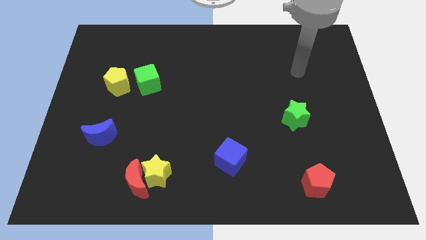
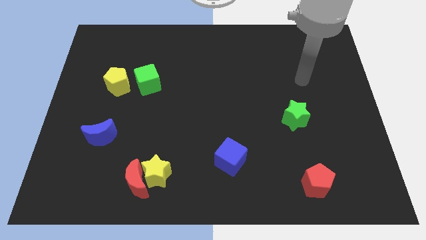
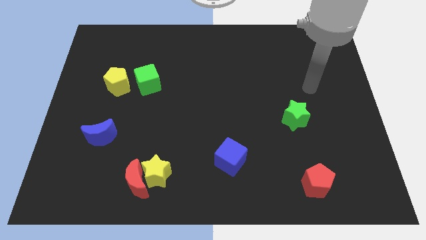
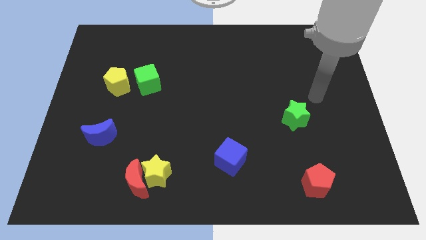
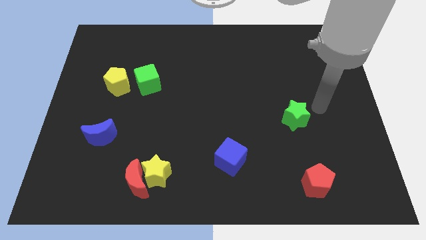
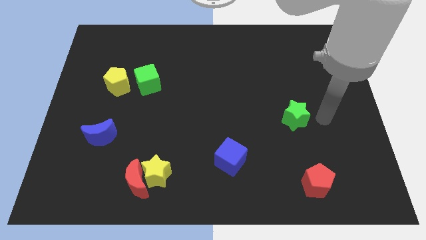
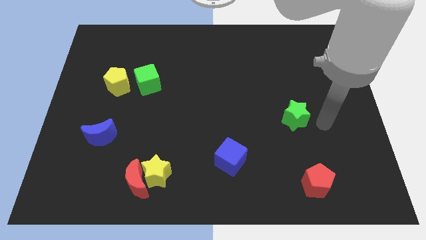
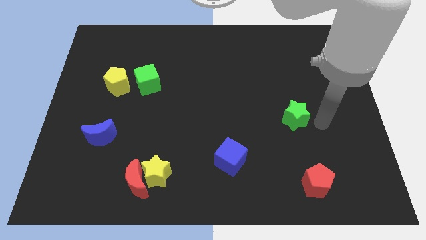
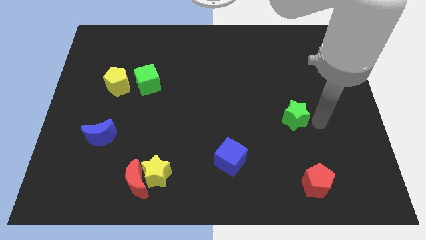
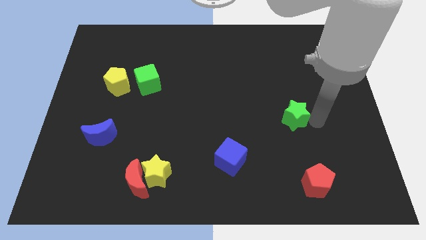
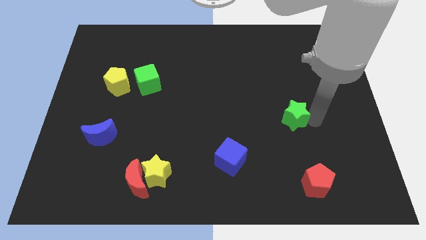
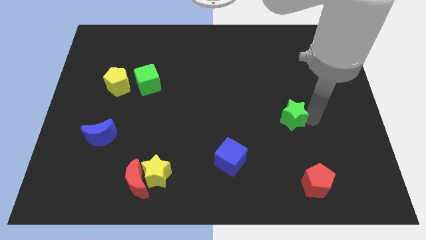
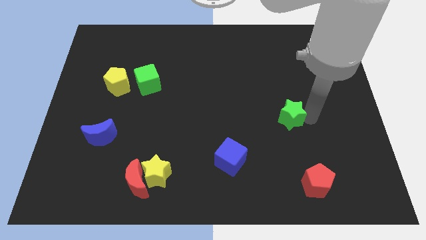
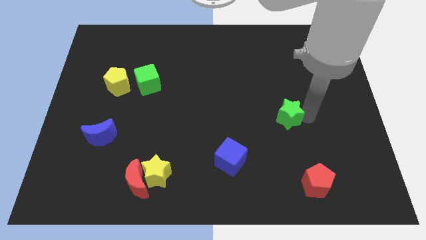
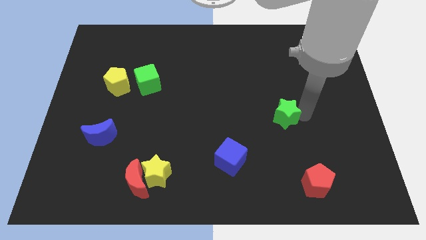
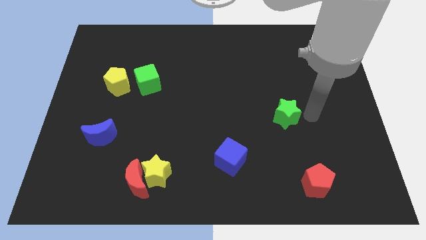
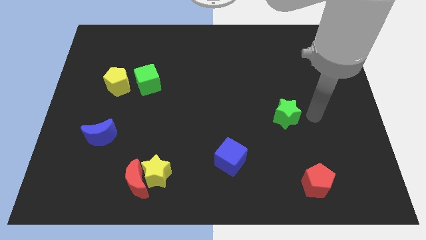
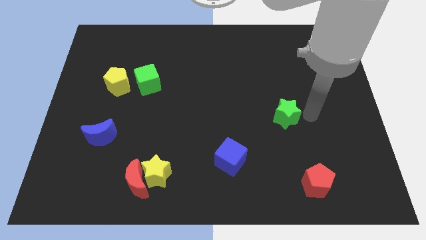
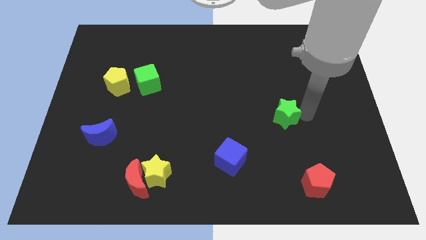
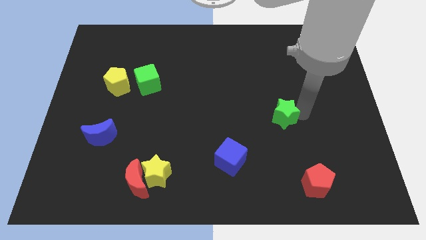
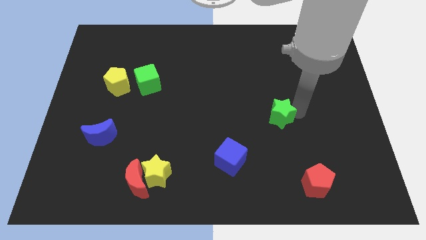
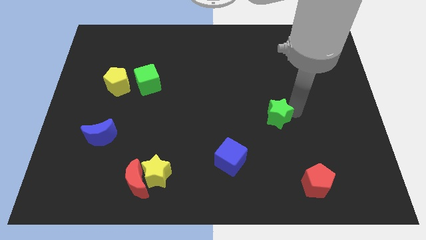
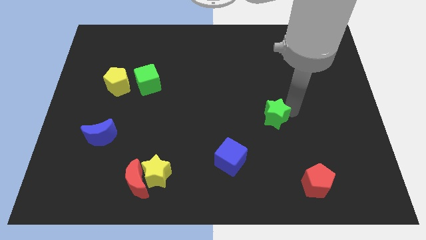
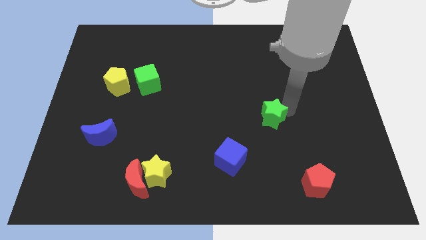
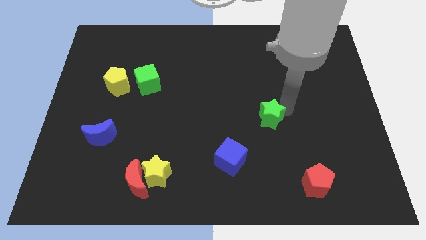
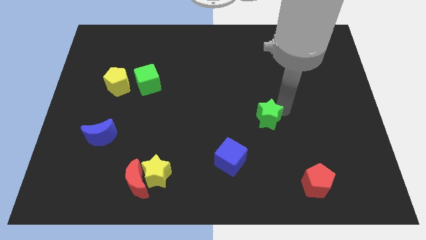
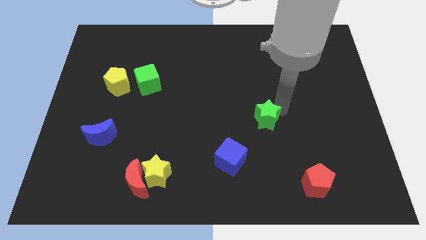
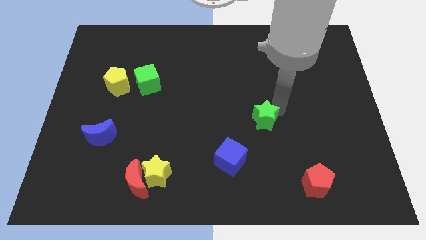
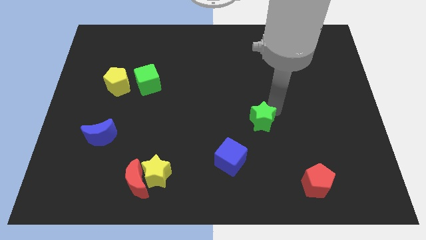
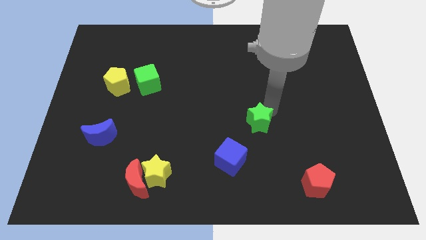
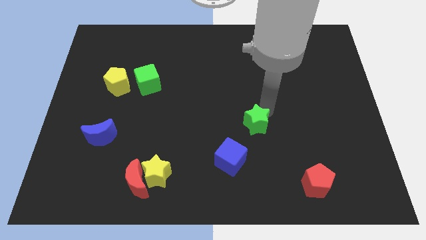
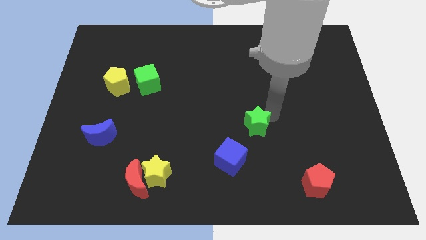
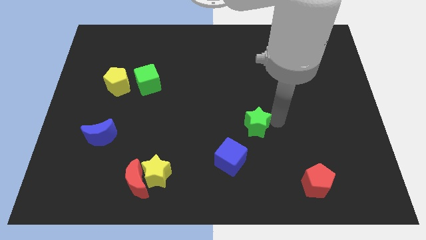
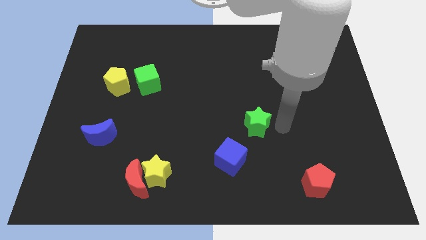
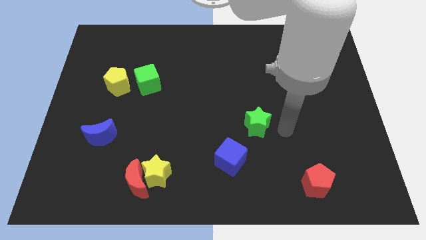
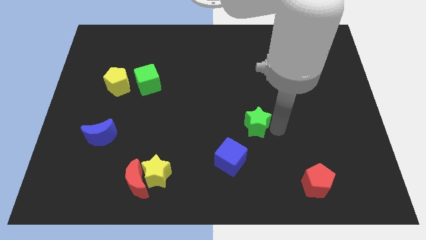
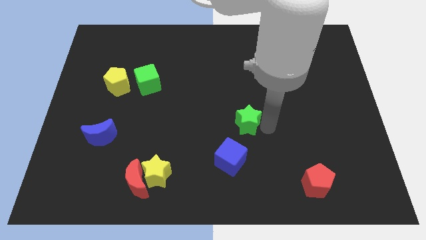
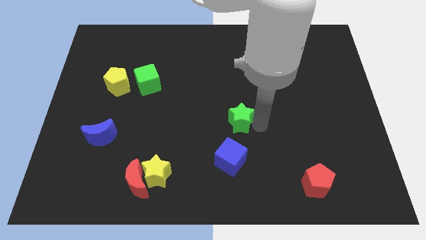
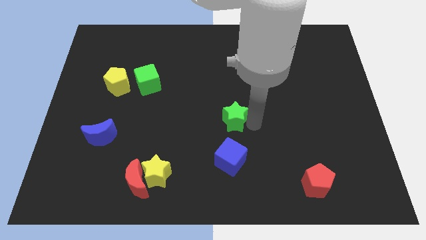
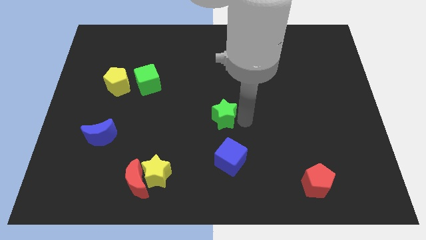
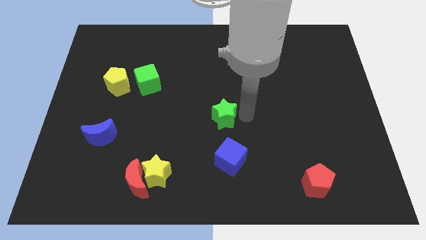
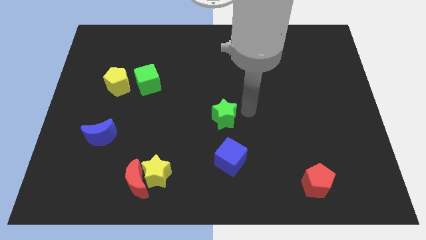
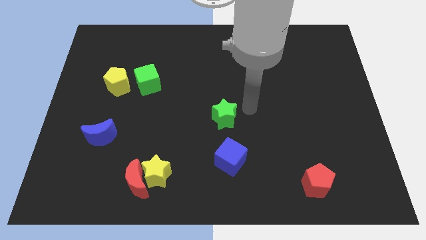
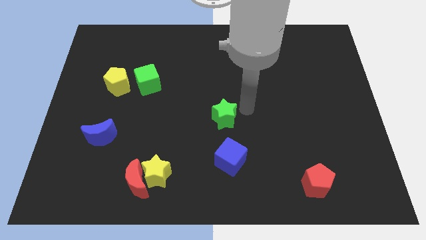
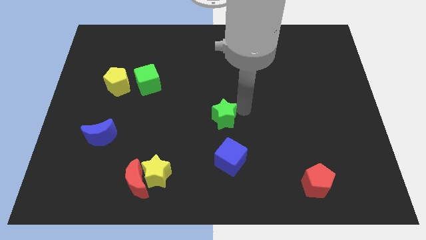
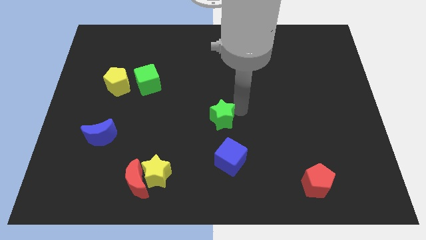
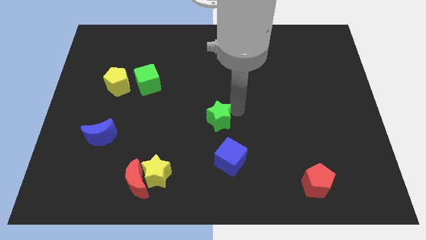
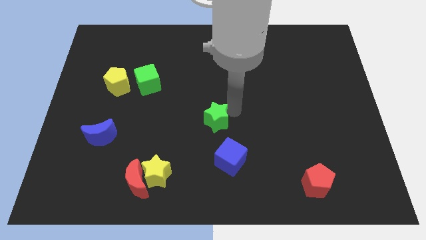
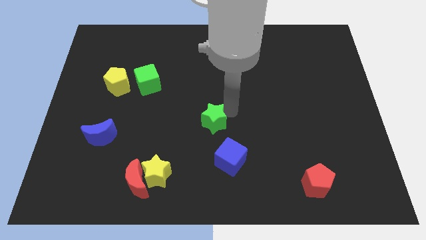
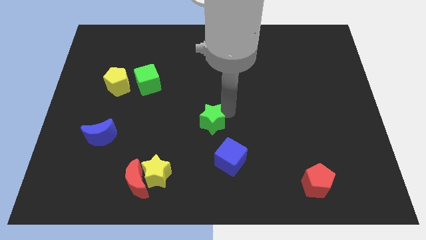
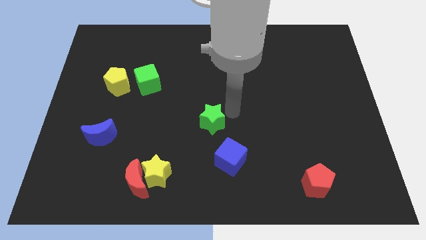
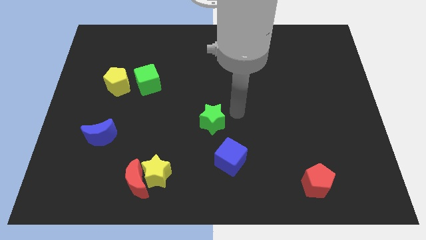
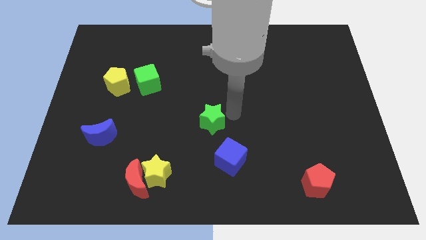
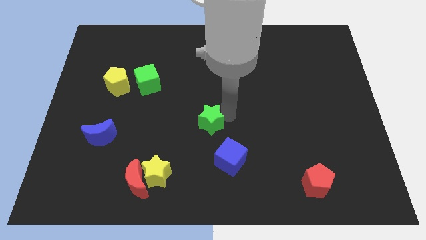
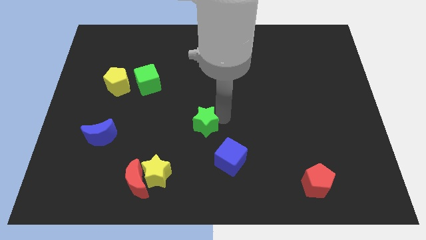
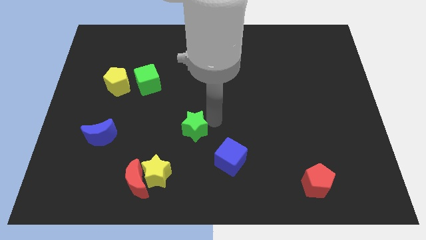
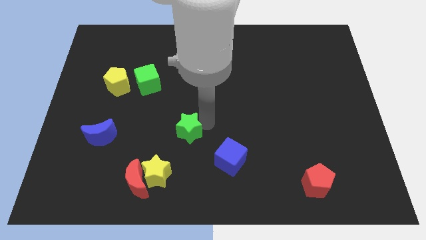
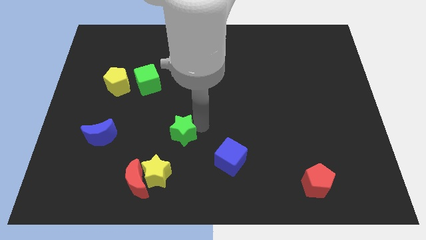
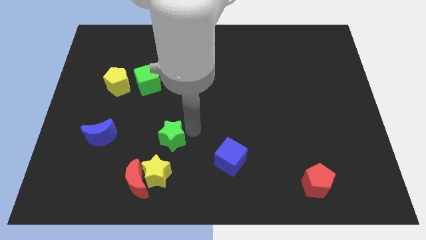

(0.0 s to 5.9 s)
slide the green star to the right side of the blue moon
